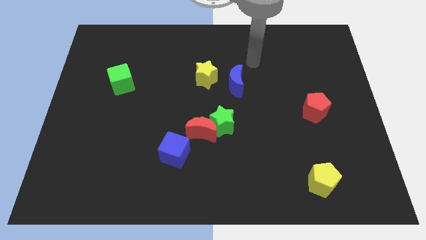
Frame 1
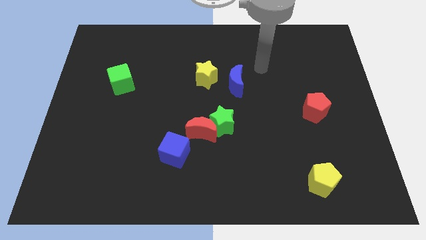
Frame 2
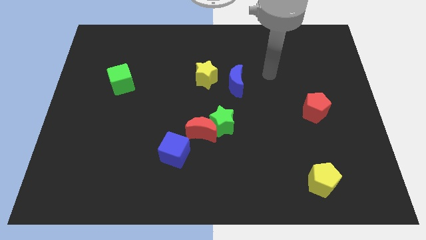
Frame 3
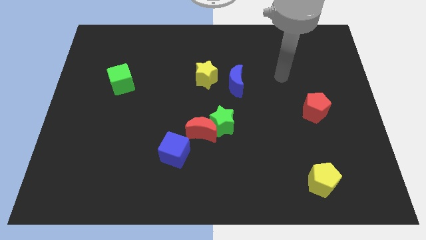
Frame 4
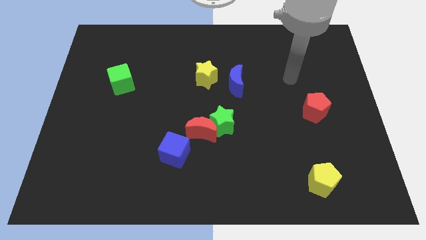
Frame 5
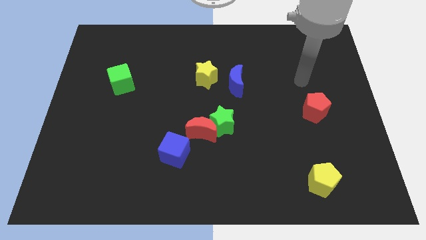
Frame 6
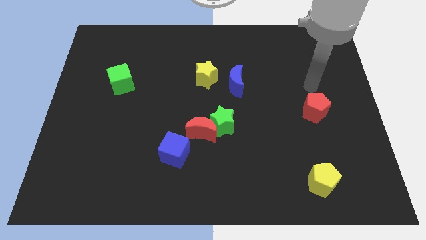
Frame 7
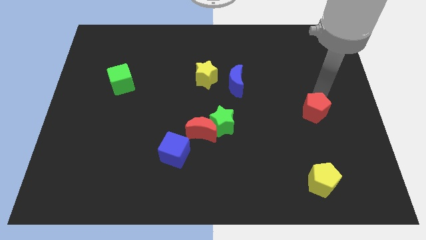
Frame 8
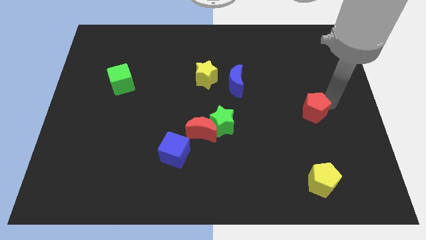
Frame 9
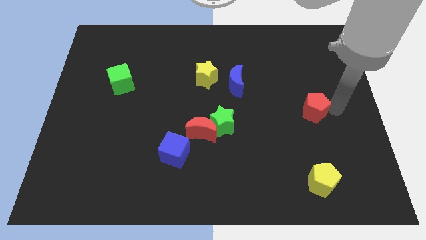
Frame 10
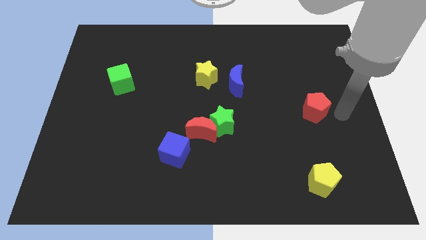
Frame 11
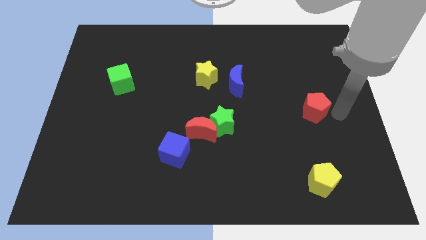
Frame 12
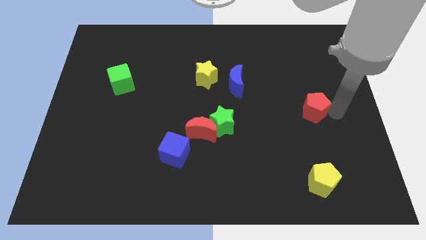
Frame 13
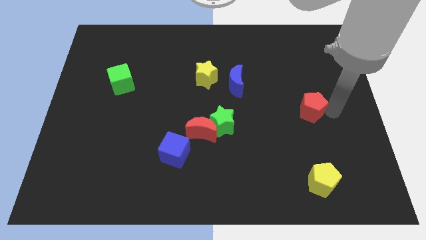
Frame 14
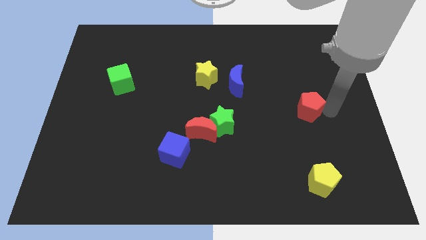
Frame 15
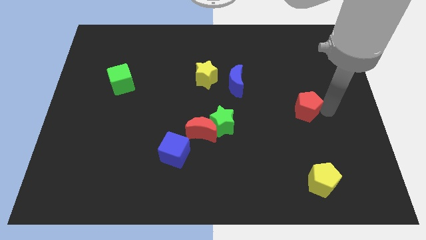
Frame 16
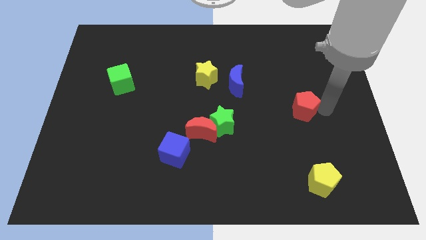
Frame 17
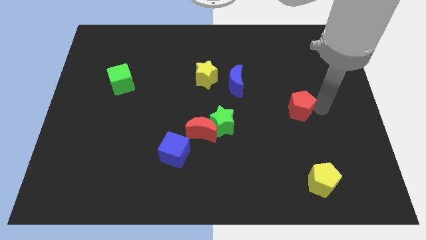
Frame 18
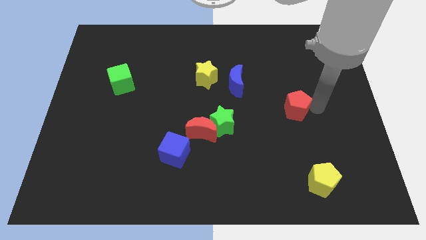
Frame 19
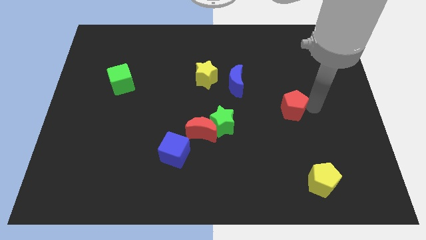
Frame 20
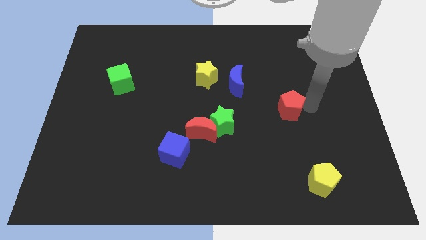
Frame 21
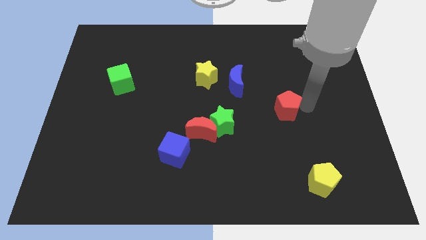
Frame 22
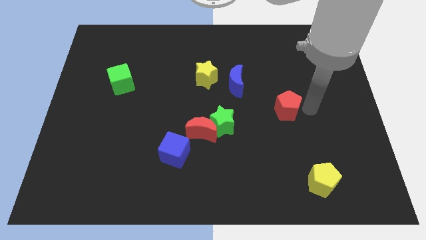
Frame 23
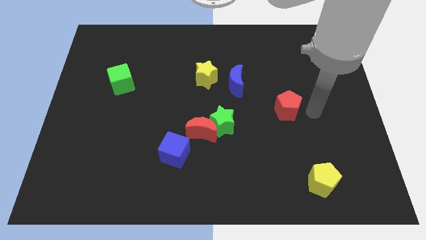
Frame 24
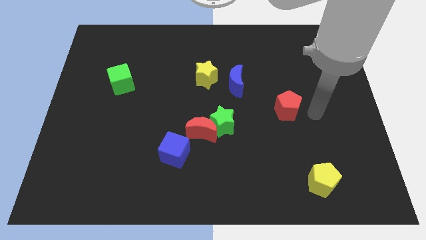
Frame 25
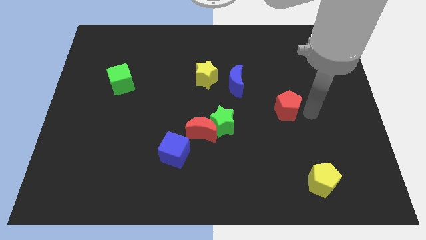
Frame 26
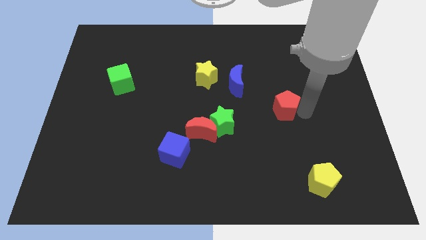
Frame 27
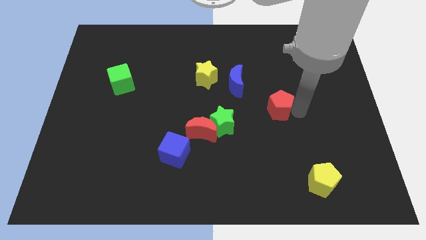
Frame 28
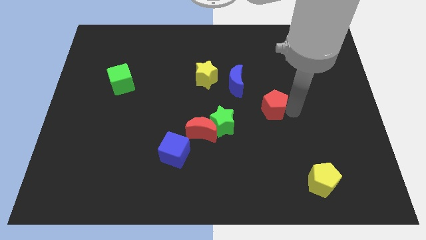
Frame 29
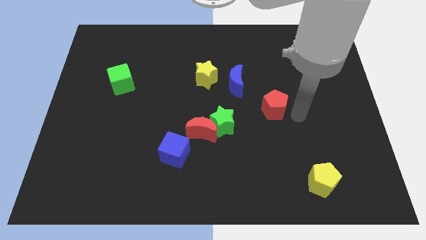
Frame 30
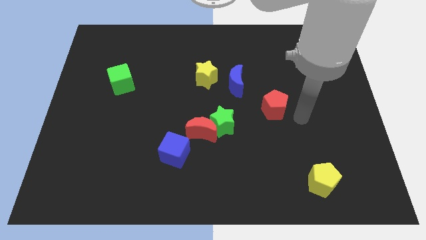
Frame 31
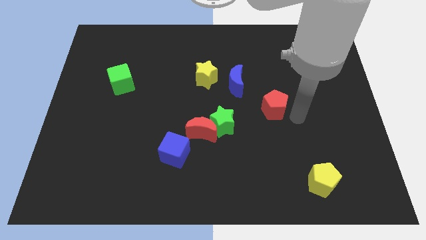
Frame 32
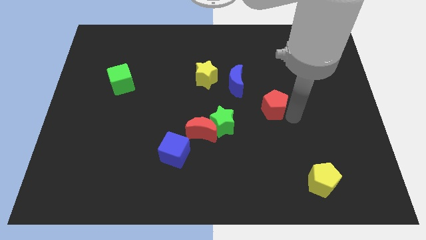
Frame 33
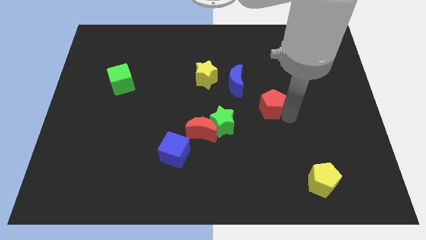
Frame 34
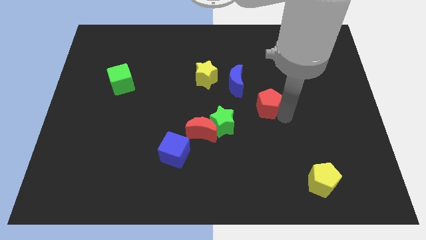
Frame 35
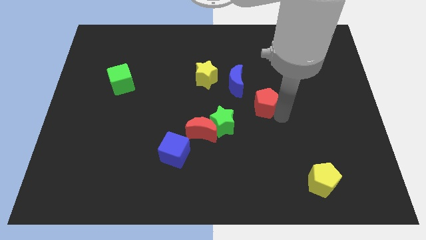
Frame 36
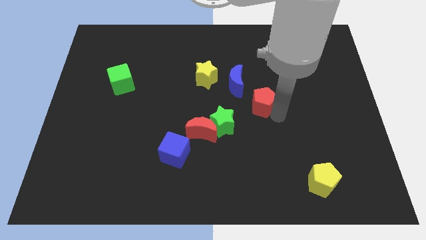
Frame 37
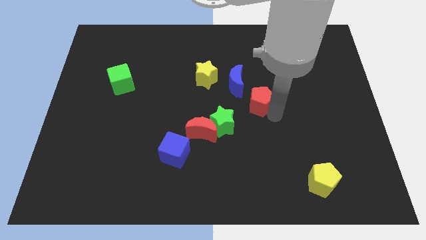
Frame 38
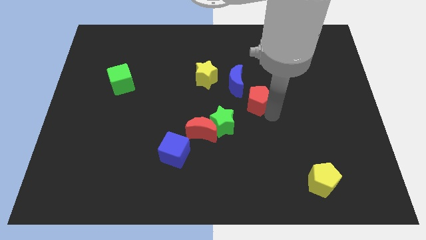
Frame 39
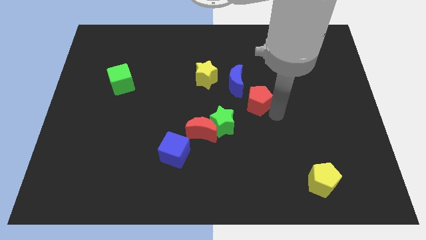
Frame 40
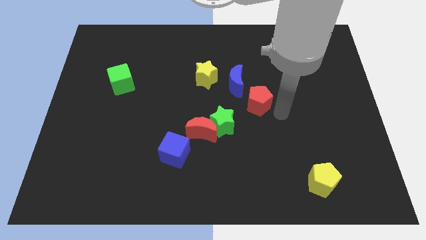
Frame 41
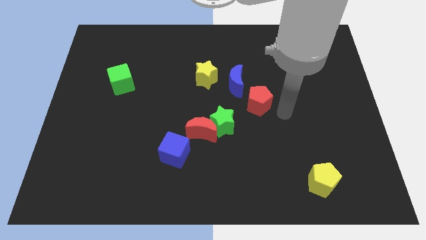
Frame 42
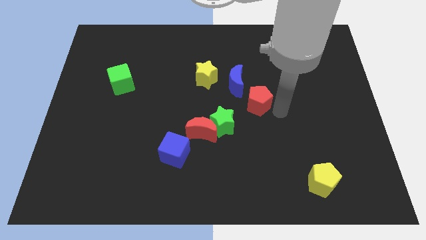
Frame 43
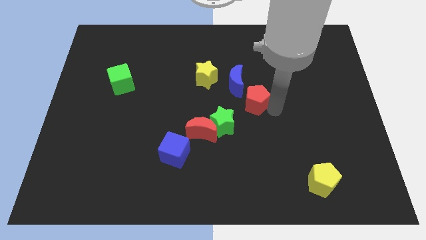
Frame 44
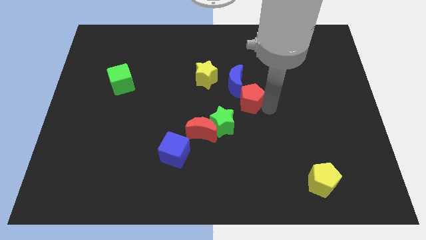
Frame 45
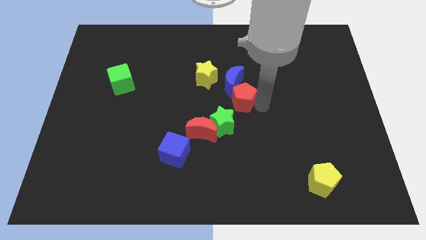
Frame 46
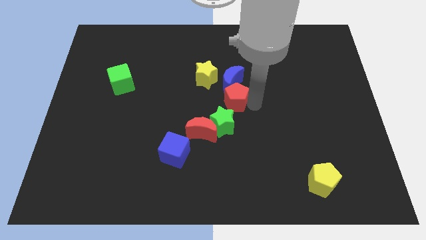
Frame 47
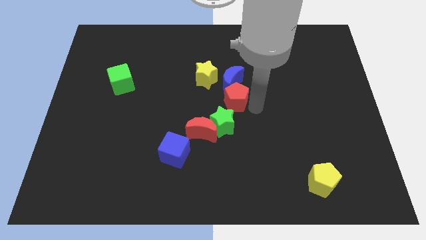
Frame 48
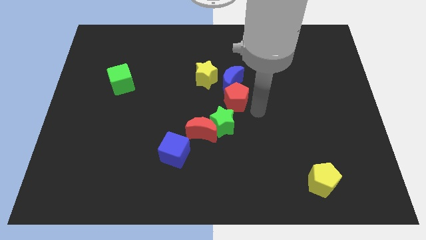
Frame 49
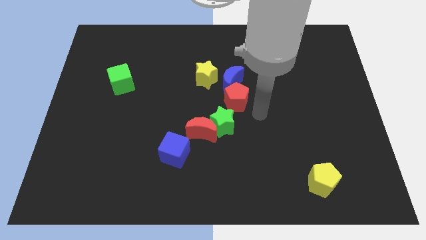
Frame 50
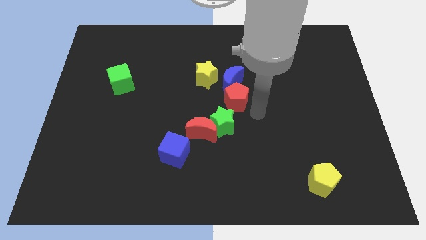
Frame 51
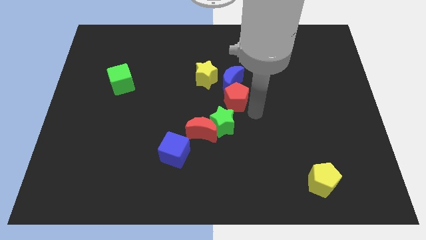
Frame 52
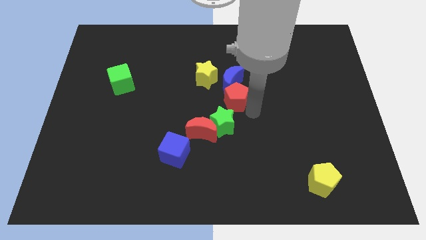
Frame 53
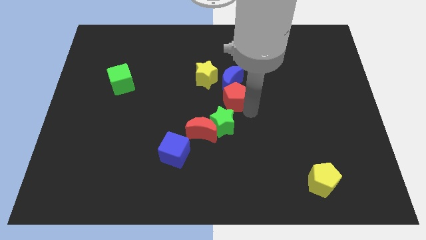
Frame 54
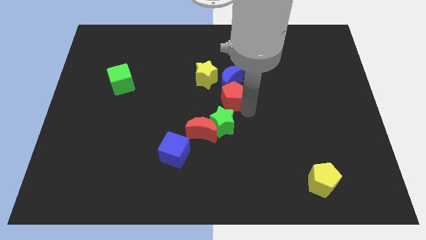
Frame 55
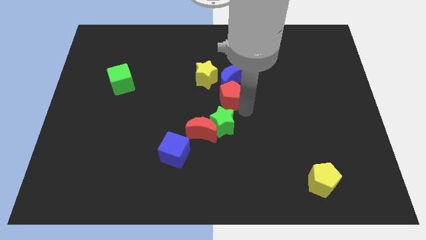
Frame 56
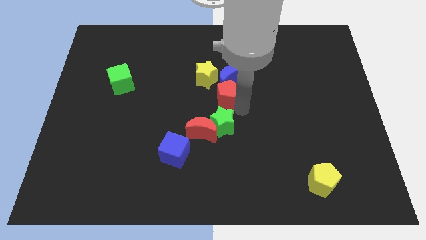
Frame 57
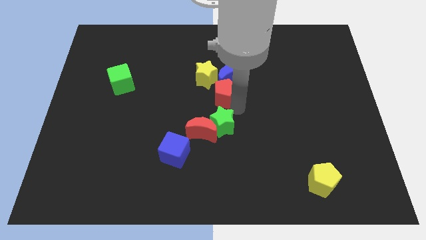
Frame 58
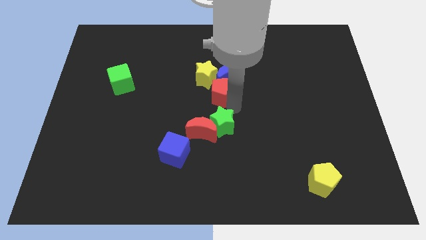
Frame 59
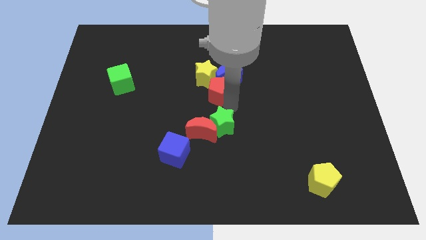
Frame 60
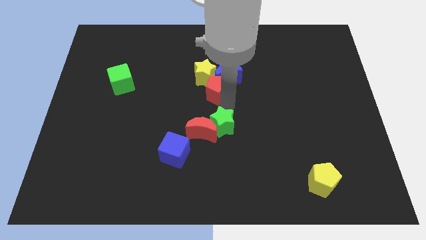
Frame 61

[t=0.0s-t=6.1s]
slide the red pentagon to the yellow star

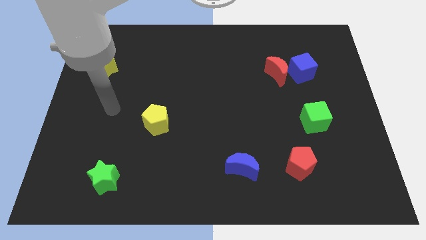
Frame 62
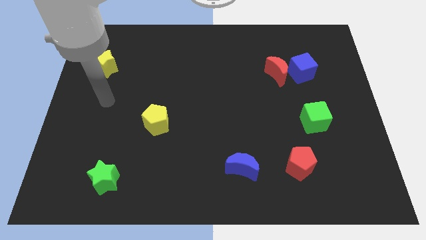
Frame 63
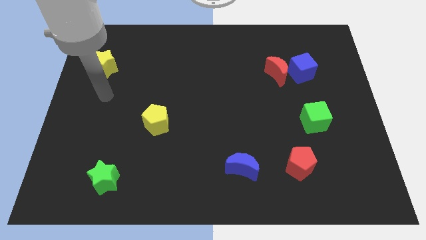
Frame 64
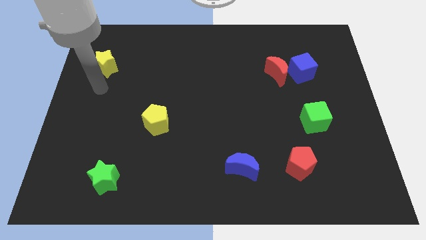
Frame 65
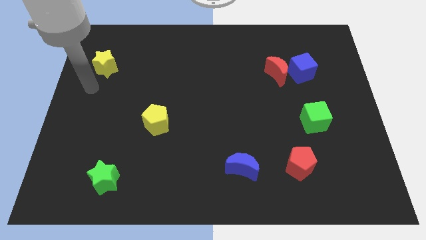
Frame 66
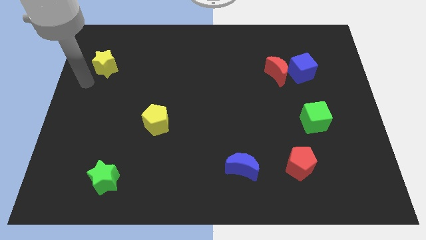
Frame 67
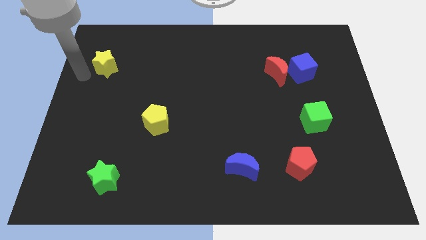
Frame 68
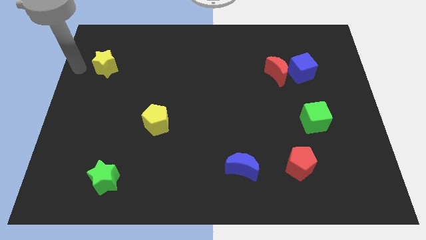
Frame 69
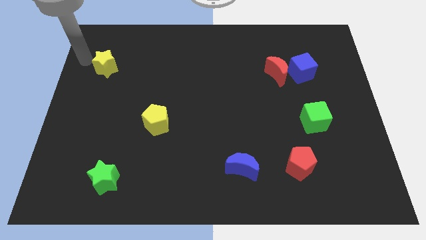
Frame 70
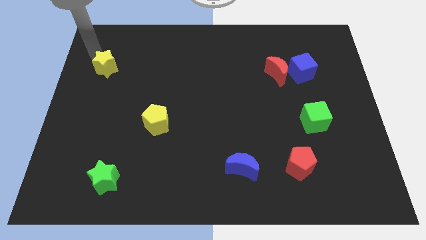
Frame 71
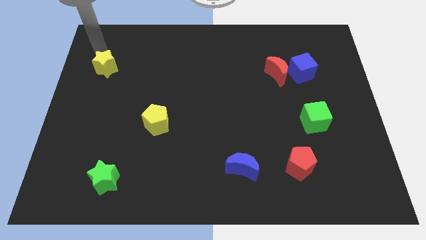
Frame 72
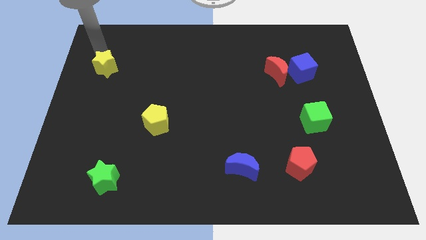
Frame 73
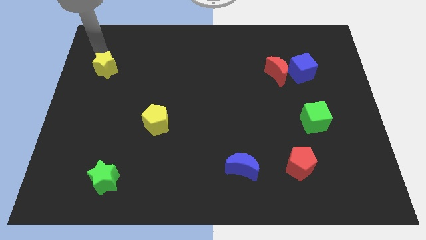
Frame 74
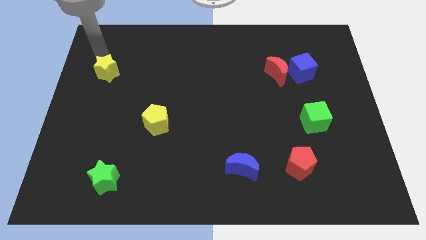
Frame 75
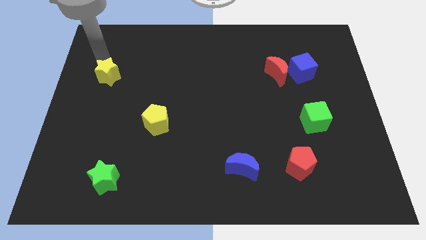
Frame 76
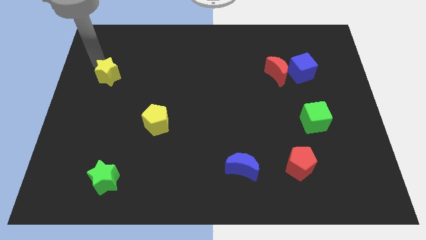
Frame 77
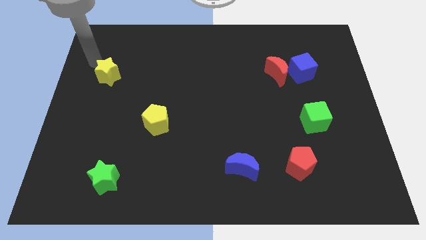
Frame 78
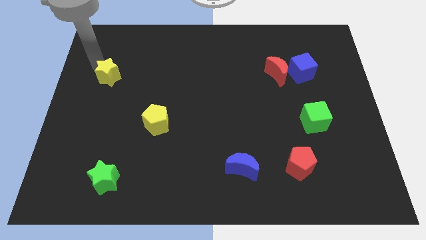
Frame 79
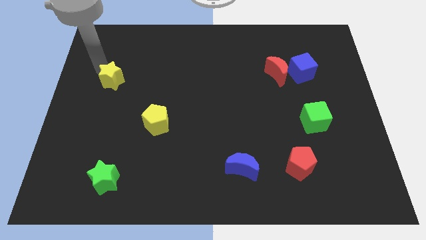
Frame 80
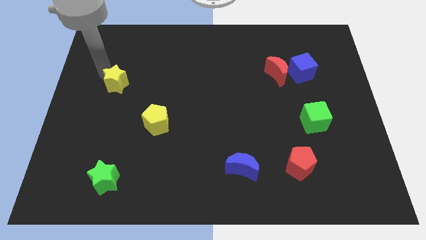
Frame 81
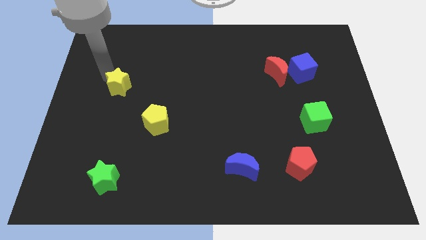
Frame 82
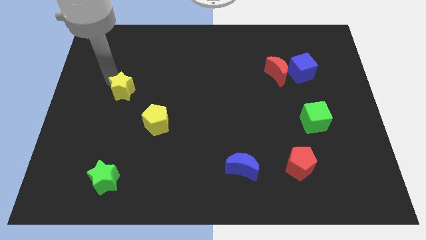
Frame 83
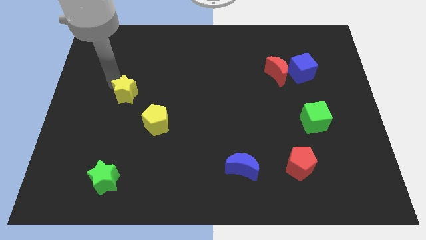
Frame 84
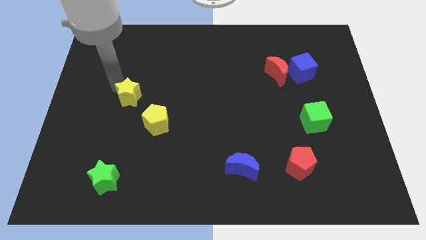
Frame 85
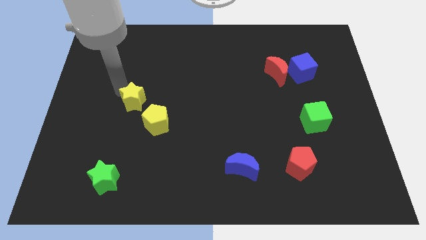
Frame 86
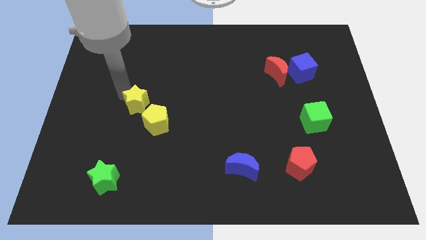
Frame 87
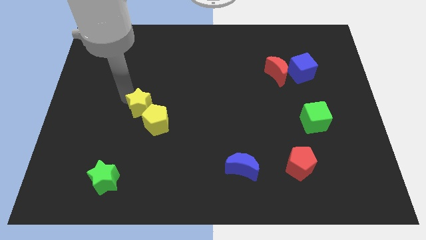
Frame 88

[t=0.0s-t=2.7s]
put the yellow star next to the yellow pentagon
